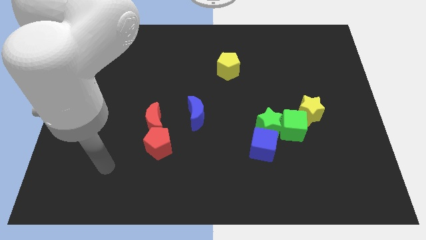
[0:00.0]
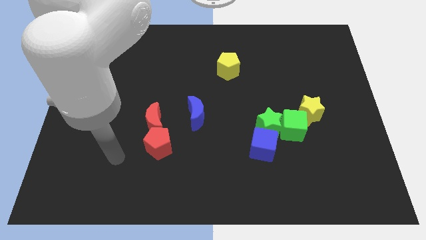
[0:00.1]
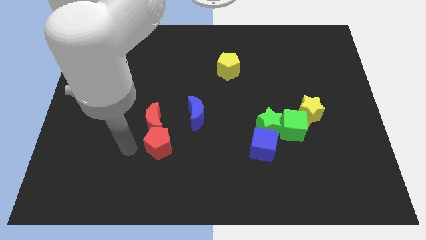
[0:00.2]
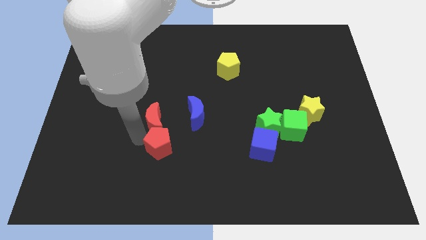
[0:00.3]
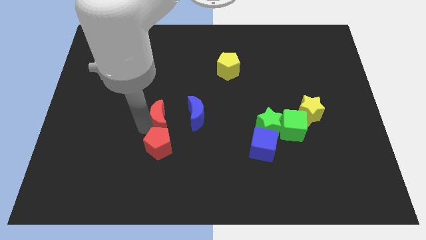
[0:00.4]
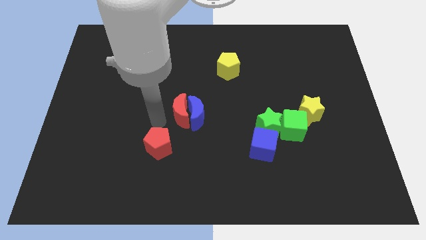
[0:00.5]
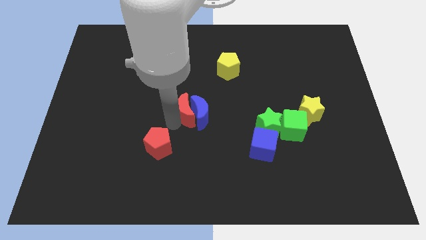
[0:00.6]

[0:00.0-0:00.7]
pull the red pentagon apart from the red moon

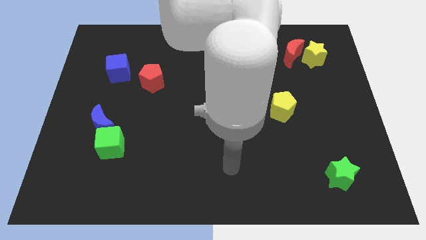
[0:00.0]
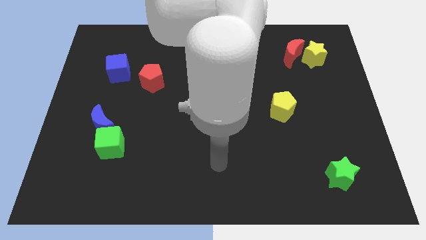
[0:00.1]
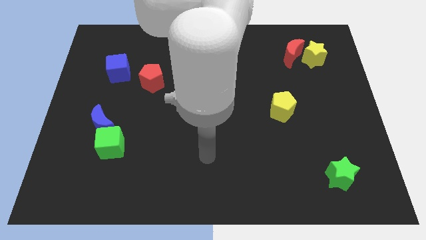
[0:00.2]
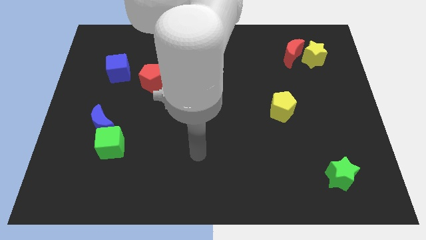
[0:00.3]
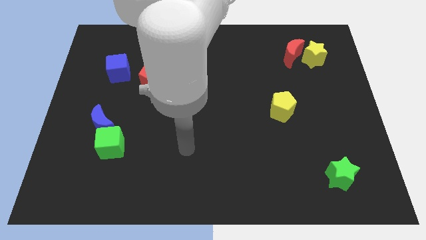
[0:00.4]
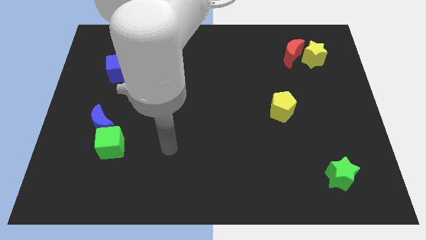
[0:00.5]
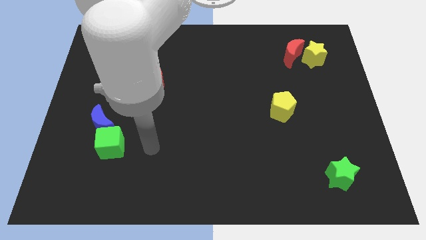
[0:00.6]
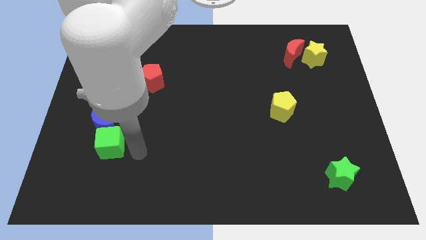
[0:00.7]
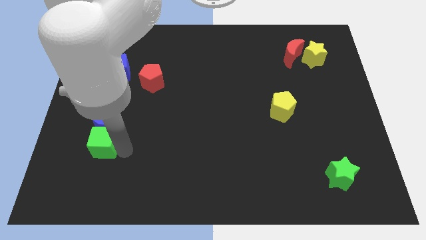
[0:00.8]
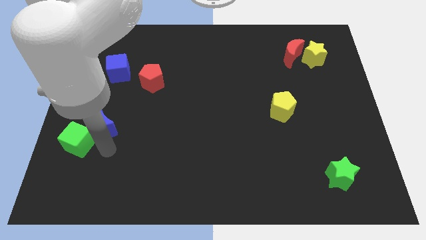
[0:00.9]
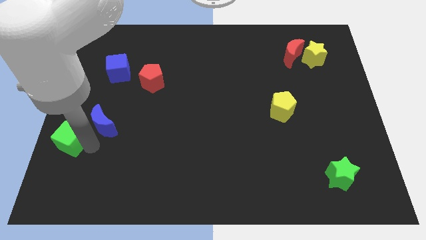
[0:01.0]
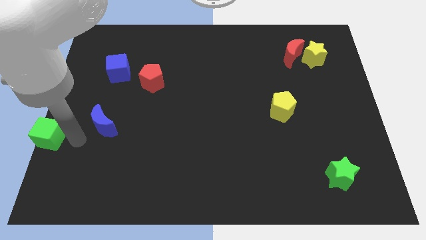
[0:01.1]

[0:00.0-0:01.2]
pull the blue moon apart from the green cube

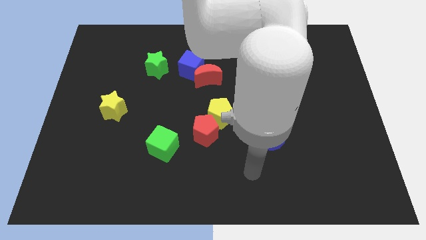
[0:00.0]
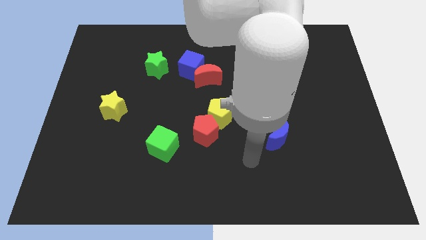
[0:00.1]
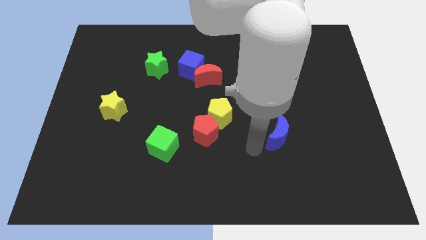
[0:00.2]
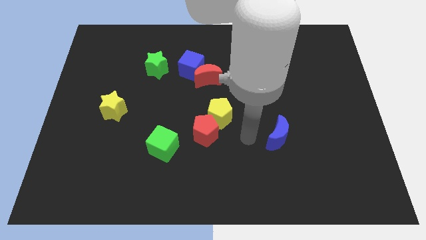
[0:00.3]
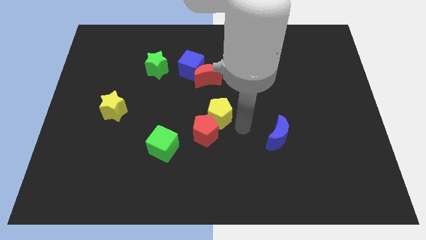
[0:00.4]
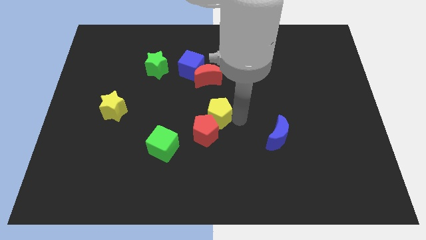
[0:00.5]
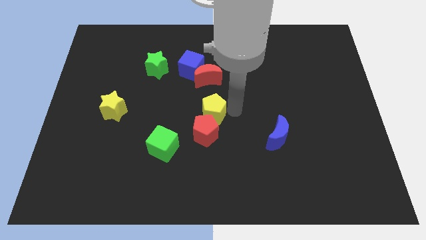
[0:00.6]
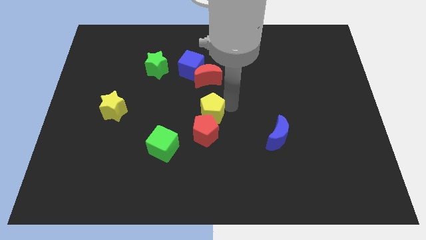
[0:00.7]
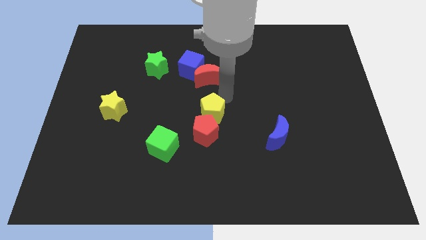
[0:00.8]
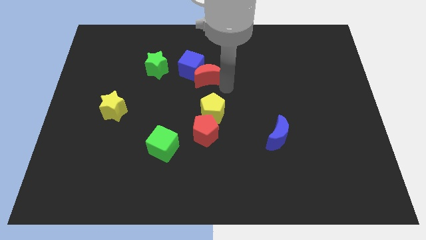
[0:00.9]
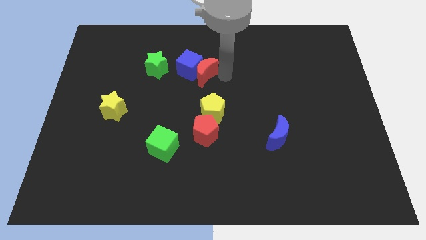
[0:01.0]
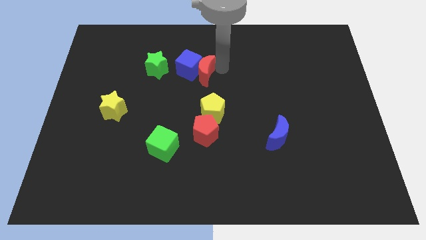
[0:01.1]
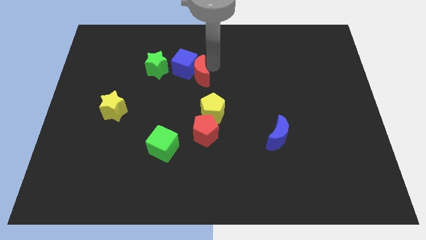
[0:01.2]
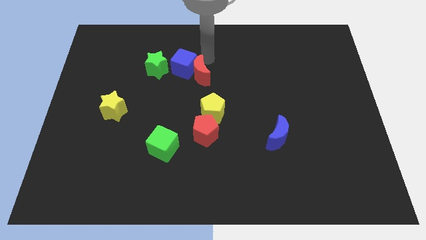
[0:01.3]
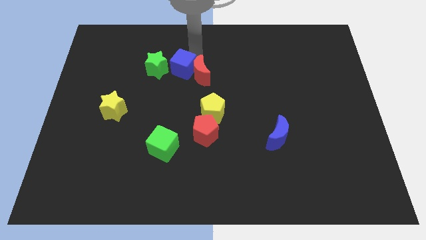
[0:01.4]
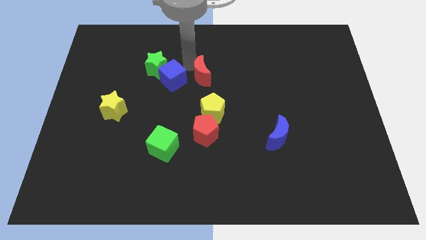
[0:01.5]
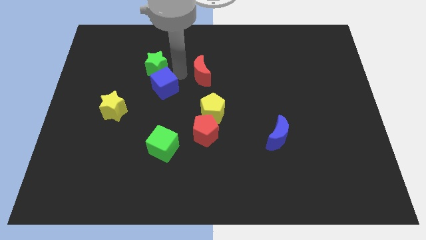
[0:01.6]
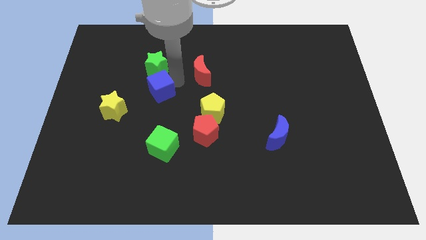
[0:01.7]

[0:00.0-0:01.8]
pull the red moon apart from the blue cube

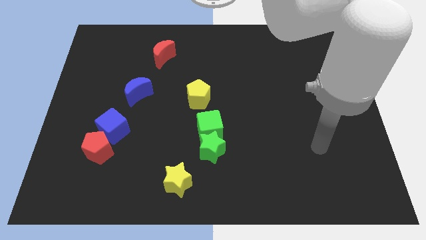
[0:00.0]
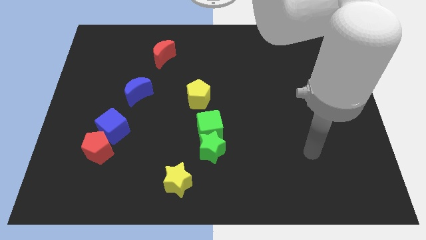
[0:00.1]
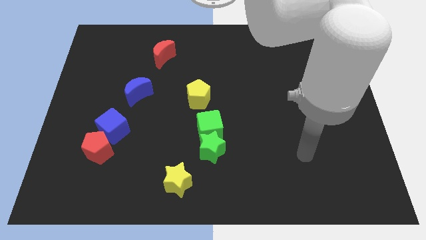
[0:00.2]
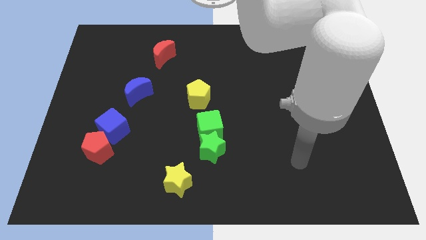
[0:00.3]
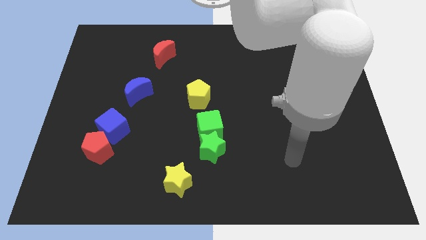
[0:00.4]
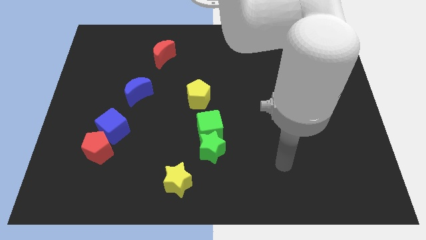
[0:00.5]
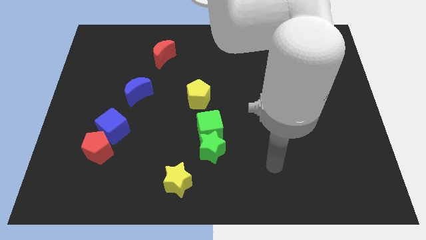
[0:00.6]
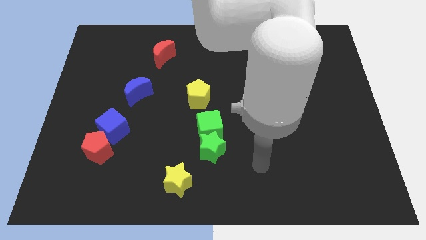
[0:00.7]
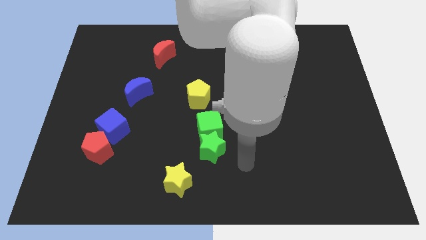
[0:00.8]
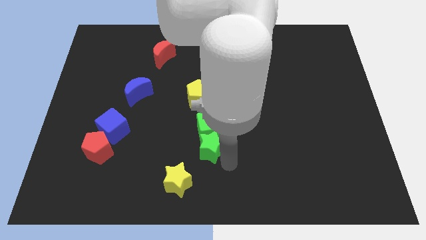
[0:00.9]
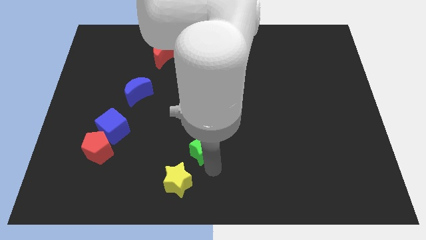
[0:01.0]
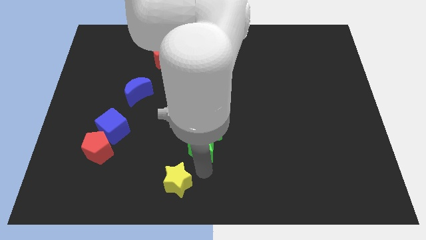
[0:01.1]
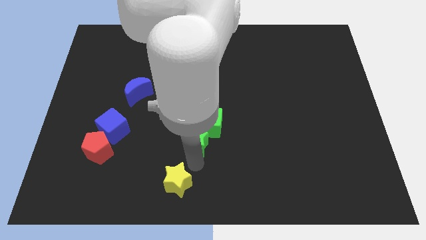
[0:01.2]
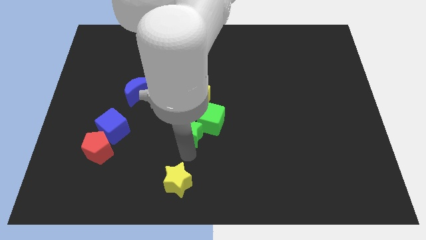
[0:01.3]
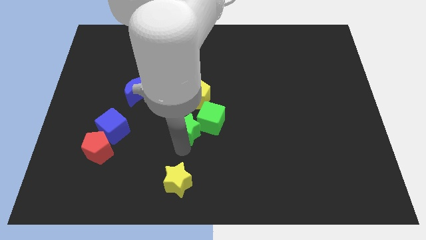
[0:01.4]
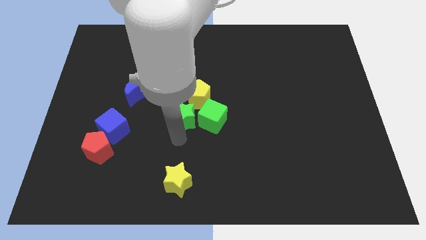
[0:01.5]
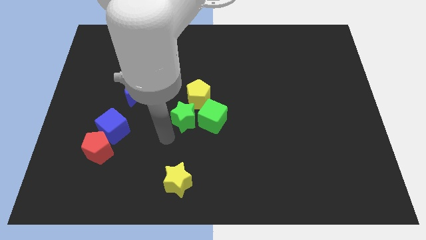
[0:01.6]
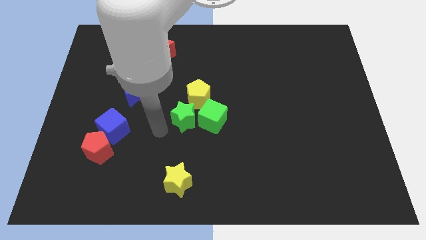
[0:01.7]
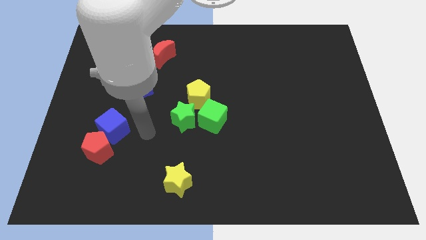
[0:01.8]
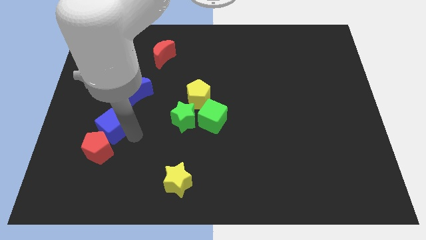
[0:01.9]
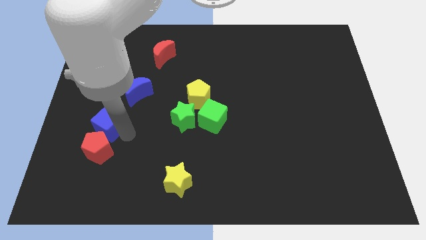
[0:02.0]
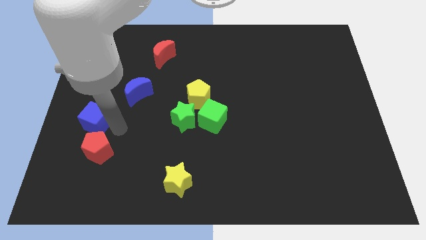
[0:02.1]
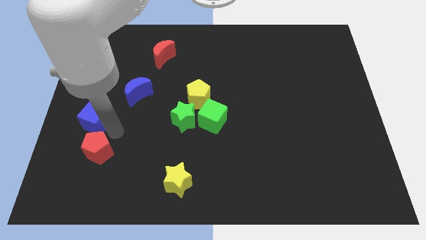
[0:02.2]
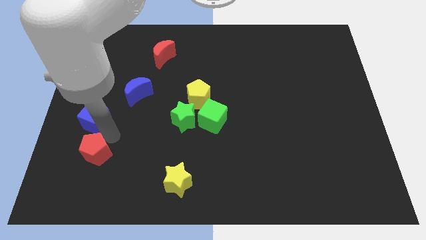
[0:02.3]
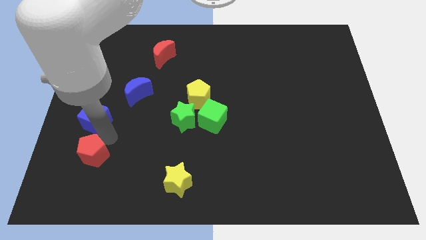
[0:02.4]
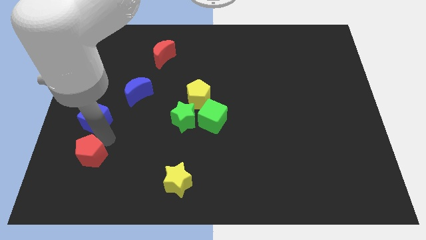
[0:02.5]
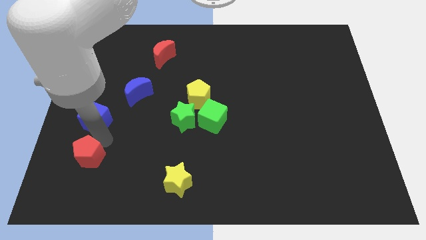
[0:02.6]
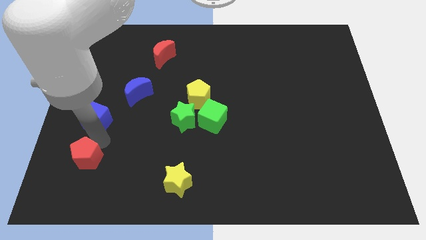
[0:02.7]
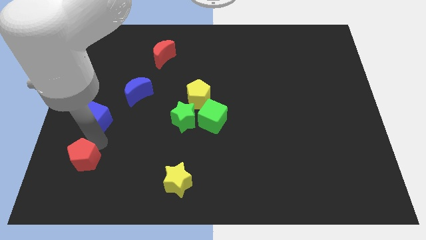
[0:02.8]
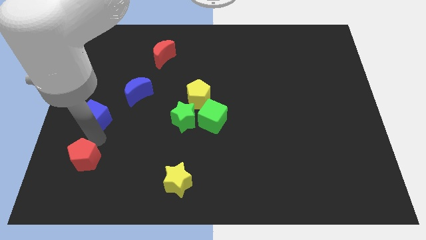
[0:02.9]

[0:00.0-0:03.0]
pull the red pentagon apart from the blue cube

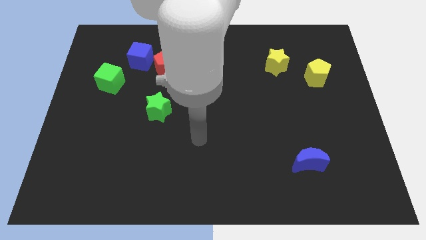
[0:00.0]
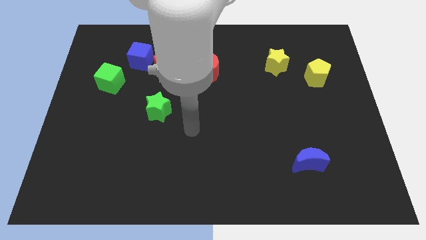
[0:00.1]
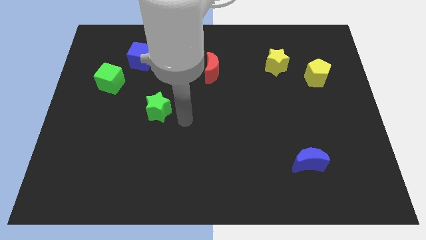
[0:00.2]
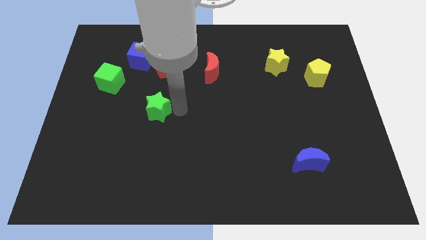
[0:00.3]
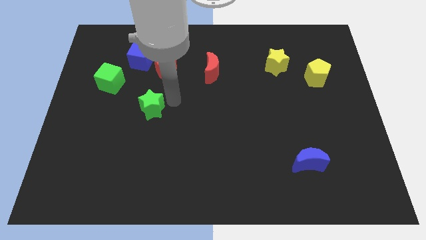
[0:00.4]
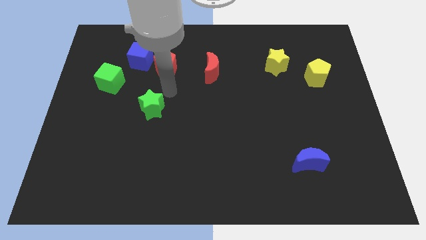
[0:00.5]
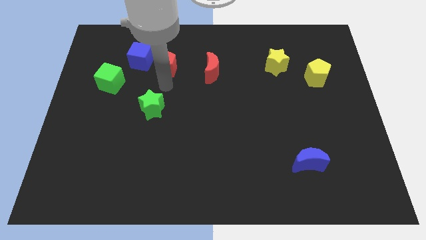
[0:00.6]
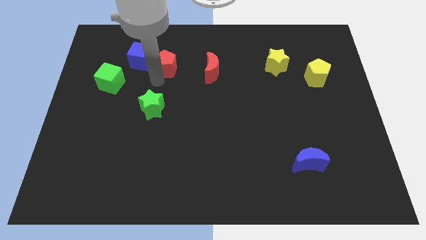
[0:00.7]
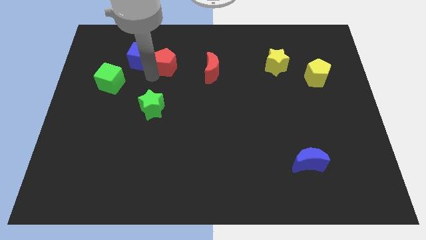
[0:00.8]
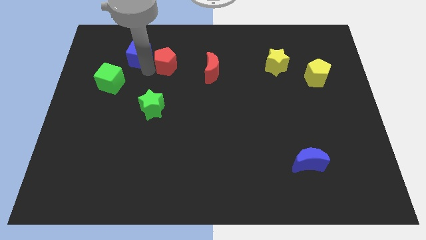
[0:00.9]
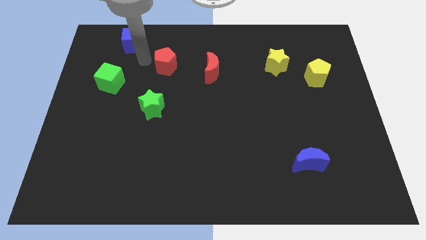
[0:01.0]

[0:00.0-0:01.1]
separate the red pentagon from the blue cube

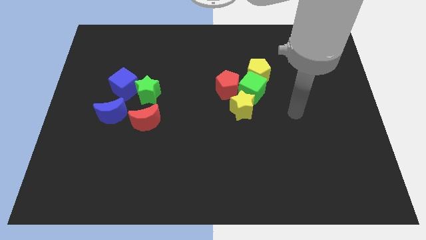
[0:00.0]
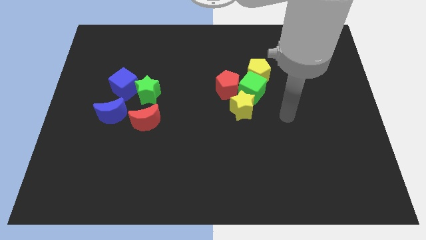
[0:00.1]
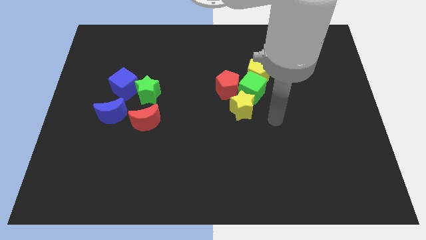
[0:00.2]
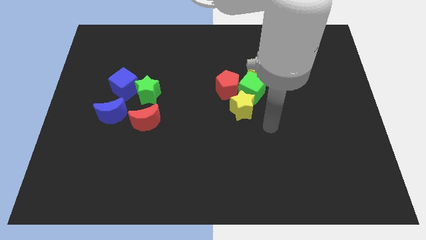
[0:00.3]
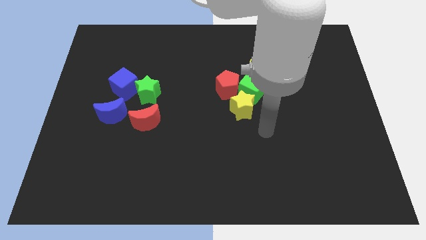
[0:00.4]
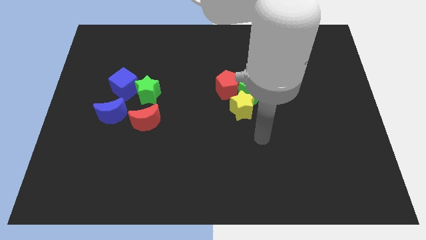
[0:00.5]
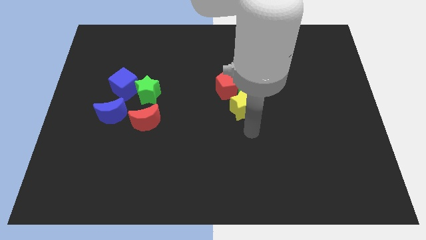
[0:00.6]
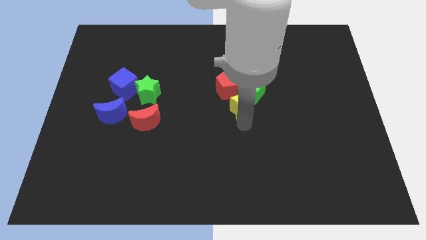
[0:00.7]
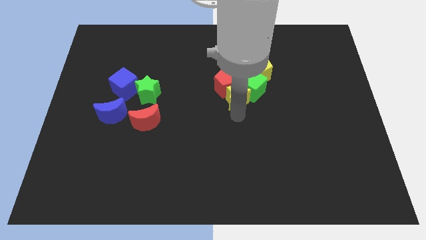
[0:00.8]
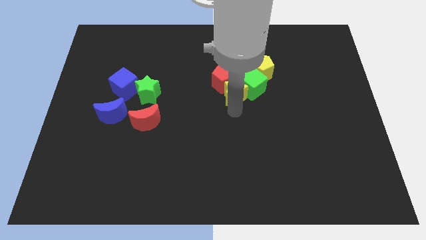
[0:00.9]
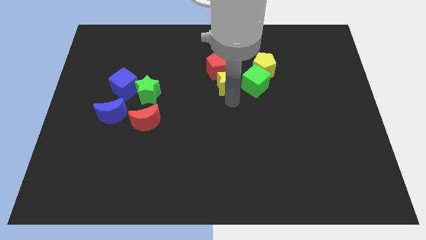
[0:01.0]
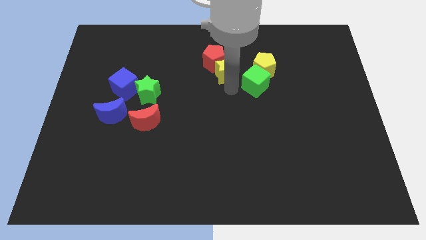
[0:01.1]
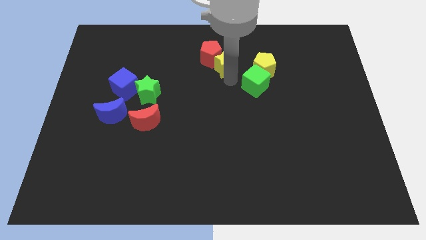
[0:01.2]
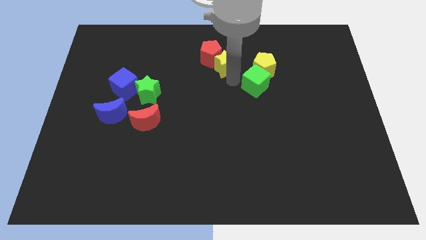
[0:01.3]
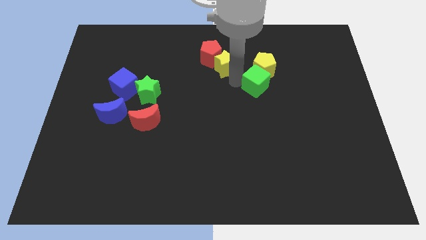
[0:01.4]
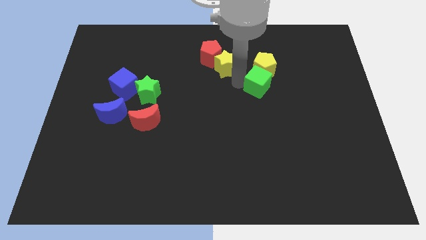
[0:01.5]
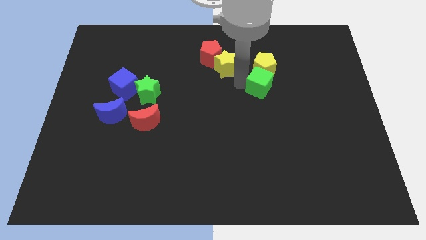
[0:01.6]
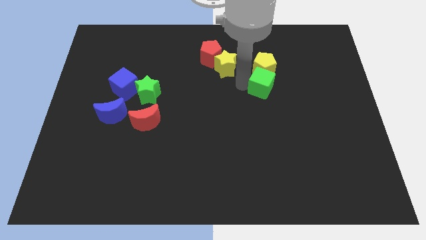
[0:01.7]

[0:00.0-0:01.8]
separate the green cube from the group
